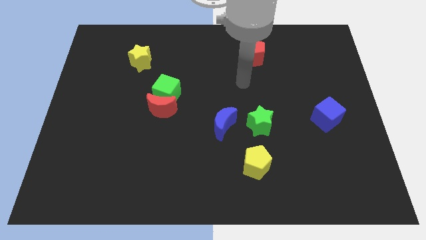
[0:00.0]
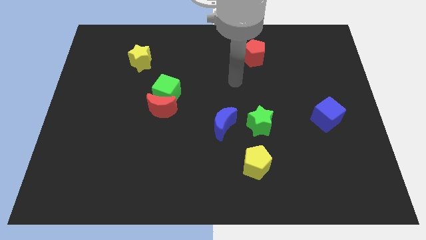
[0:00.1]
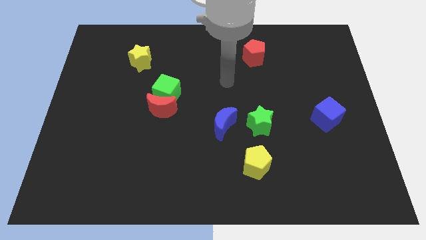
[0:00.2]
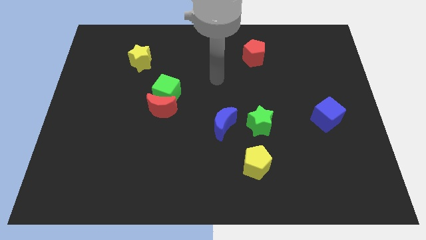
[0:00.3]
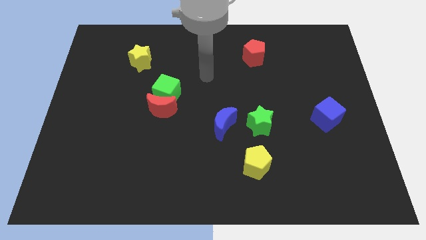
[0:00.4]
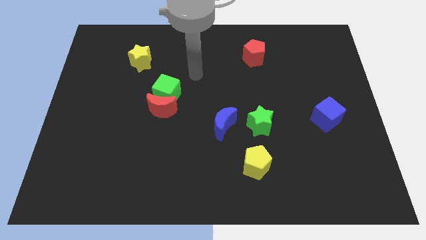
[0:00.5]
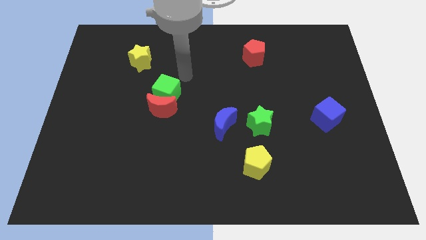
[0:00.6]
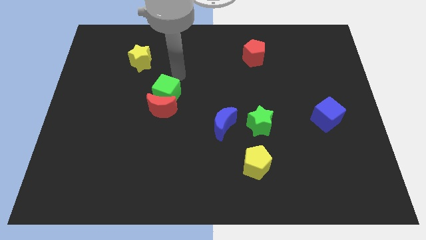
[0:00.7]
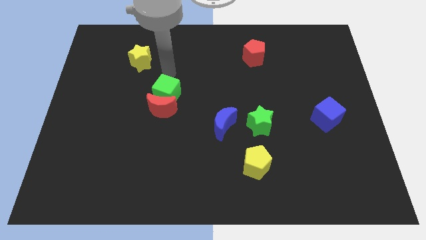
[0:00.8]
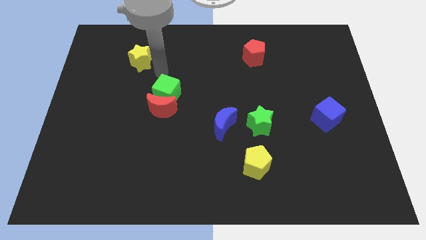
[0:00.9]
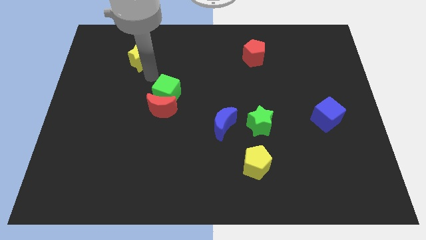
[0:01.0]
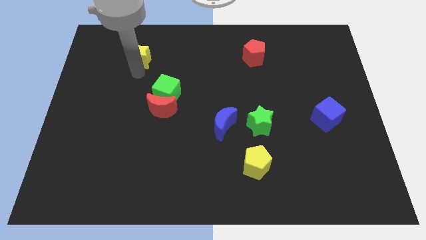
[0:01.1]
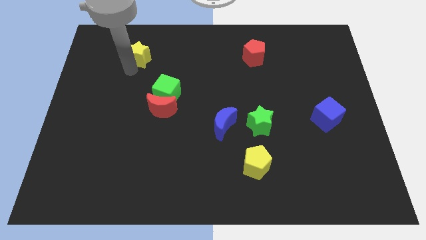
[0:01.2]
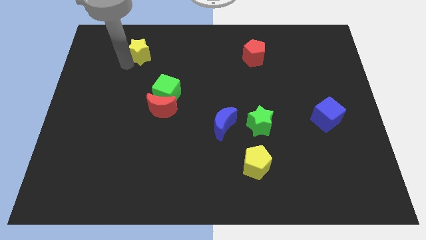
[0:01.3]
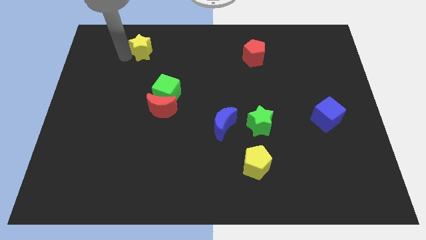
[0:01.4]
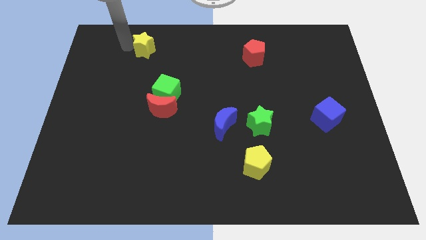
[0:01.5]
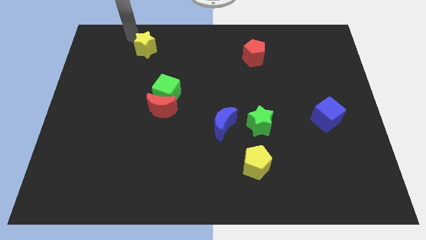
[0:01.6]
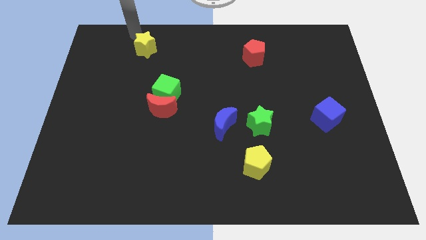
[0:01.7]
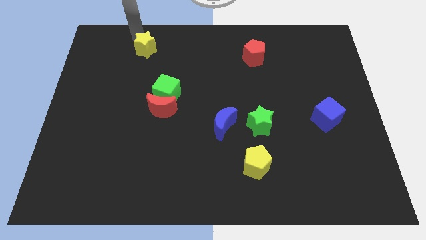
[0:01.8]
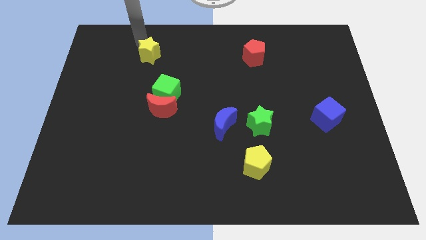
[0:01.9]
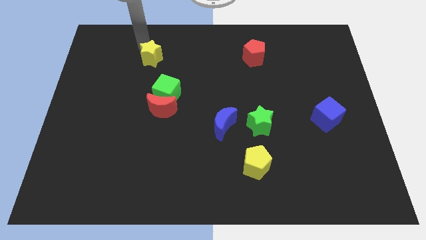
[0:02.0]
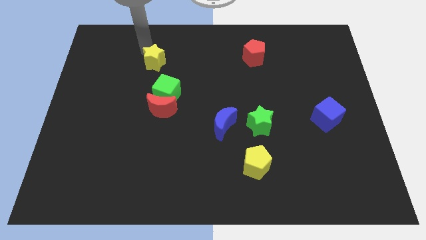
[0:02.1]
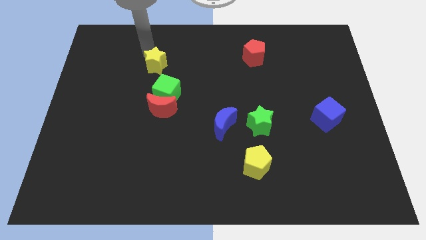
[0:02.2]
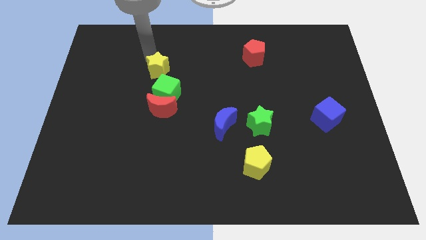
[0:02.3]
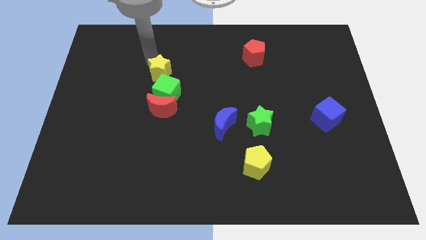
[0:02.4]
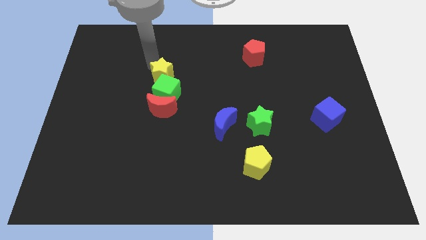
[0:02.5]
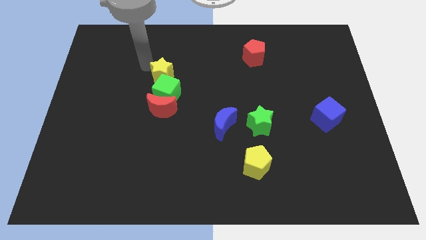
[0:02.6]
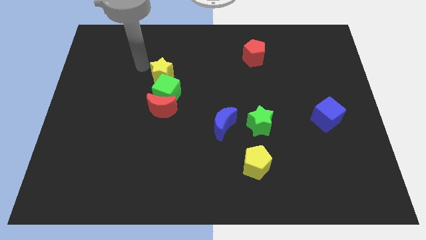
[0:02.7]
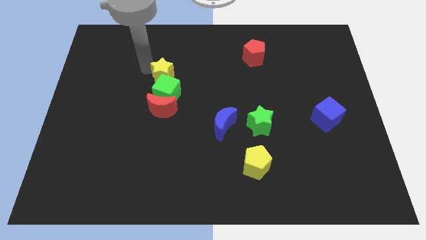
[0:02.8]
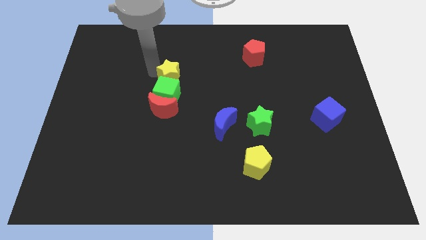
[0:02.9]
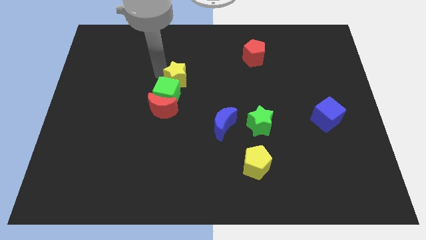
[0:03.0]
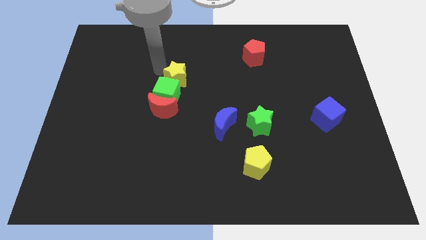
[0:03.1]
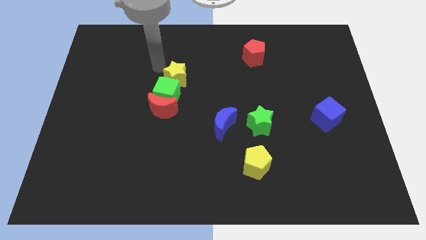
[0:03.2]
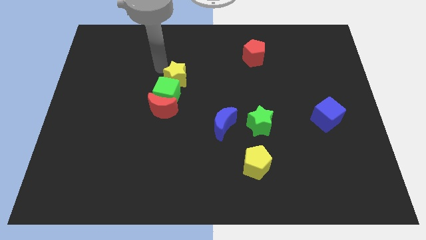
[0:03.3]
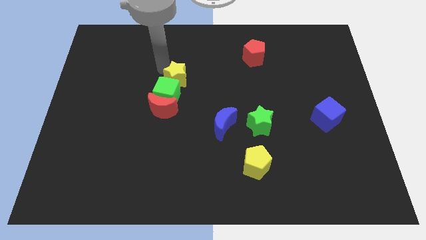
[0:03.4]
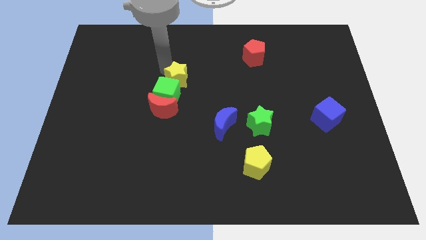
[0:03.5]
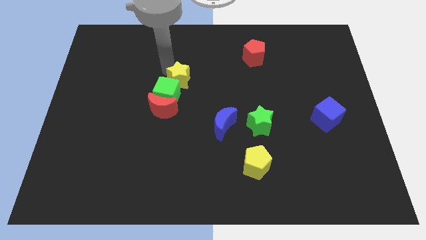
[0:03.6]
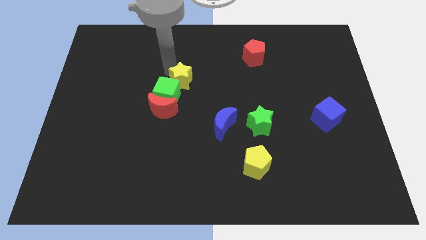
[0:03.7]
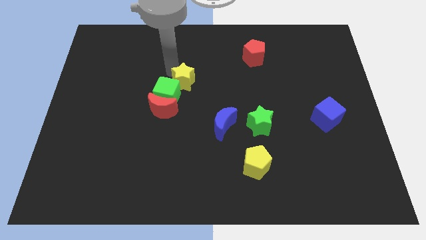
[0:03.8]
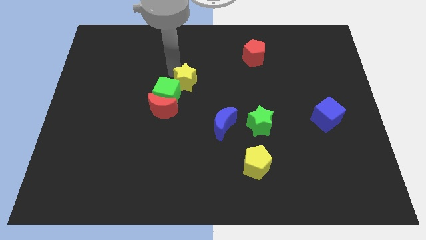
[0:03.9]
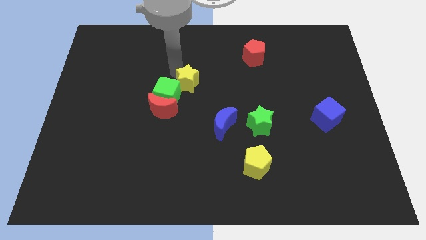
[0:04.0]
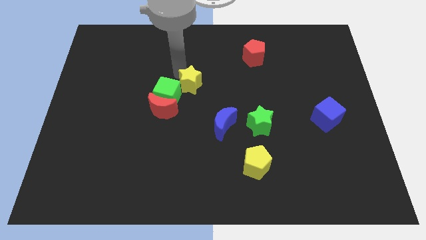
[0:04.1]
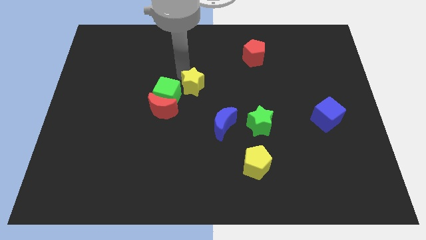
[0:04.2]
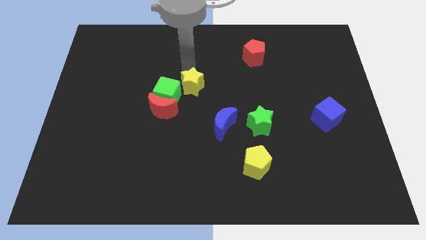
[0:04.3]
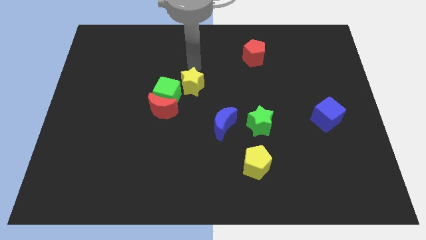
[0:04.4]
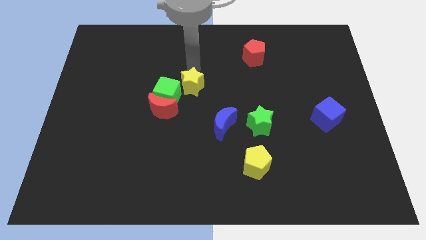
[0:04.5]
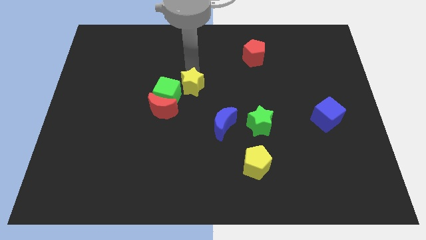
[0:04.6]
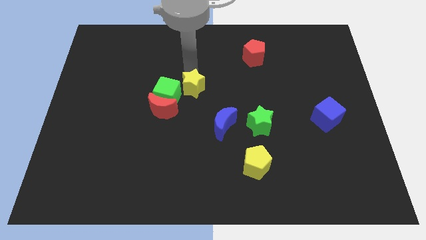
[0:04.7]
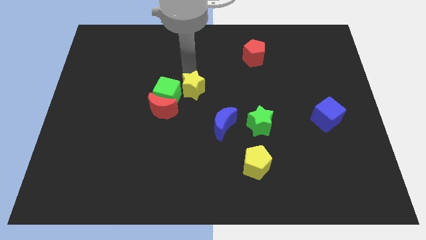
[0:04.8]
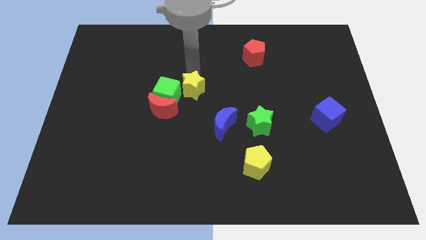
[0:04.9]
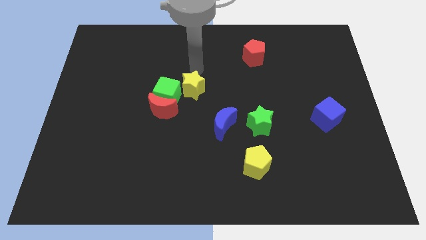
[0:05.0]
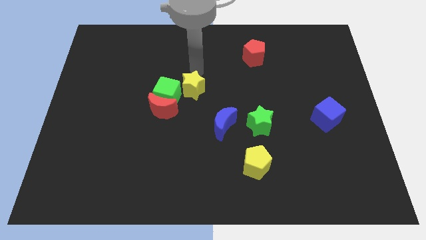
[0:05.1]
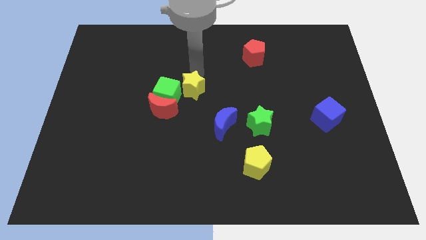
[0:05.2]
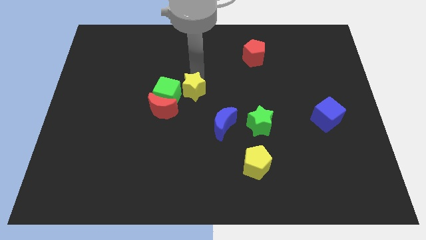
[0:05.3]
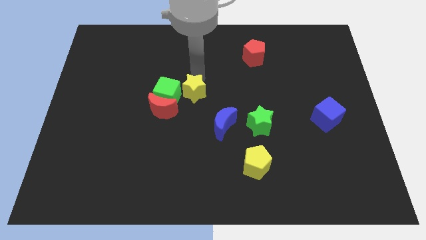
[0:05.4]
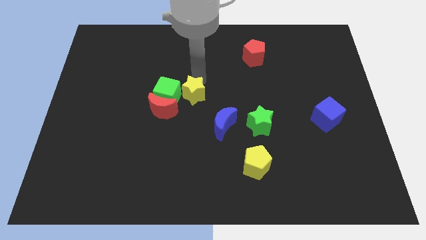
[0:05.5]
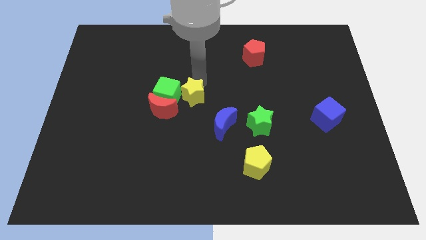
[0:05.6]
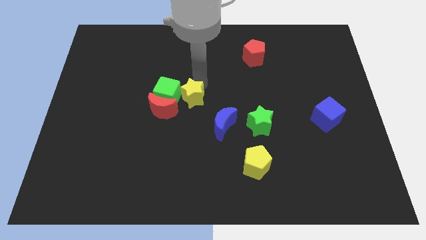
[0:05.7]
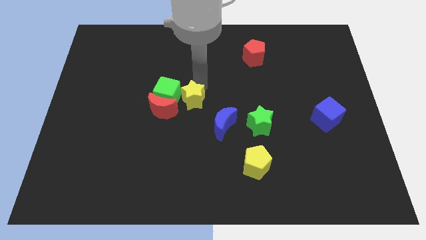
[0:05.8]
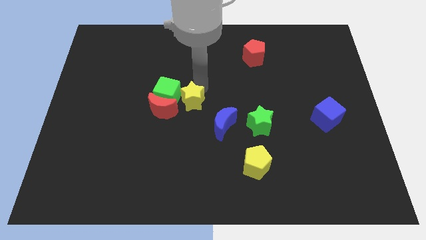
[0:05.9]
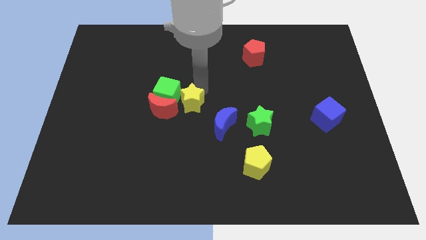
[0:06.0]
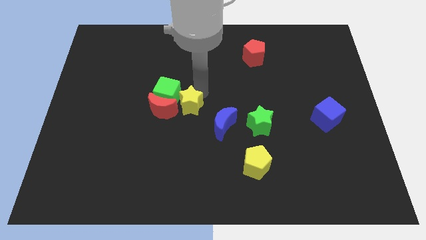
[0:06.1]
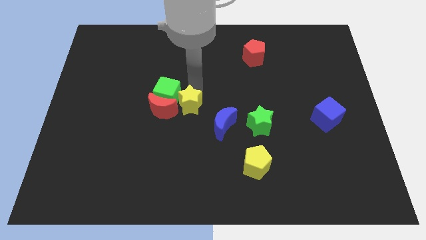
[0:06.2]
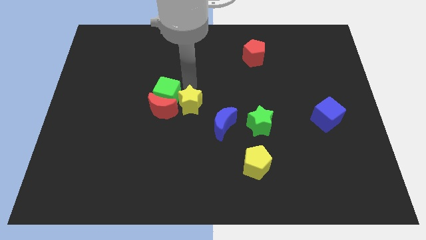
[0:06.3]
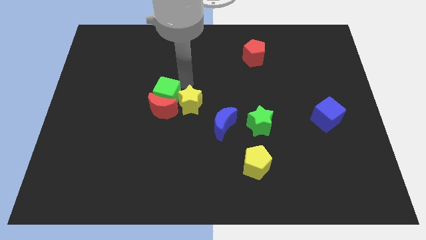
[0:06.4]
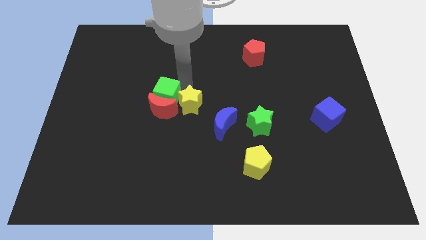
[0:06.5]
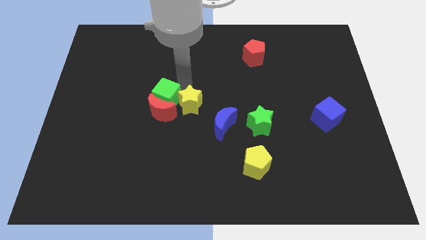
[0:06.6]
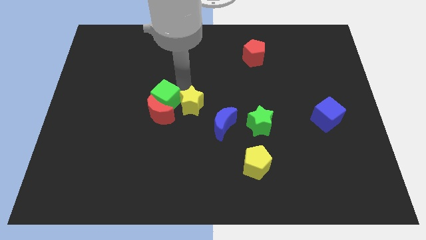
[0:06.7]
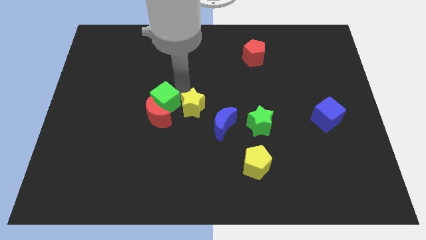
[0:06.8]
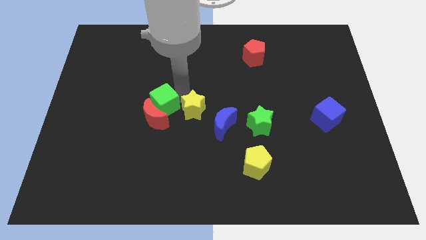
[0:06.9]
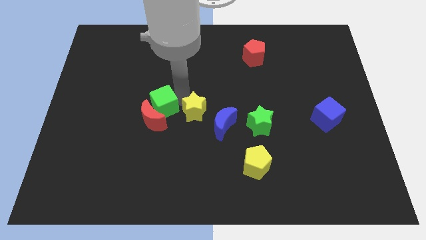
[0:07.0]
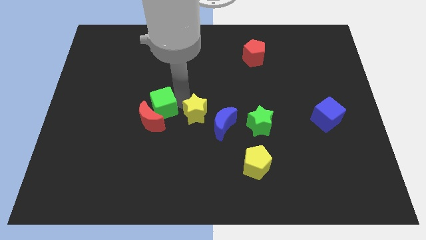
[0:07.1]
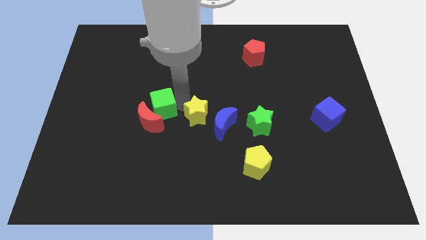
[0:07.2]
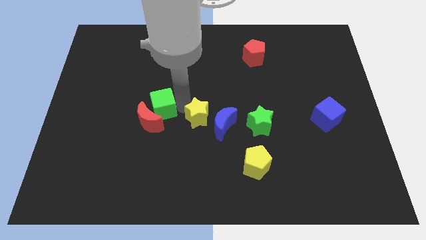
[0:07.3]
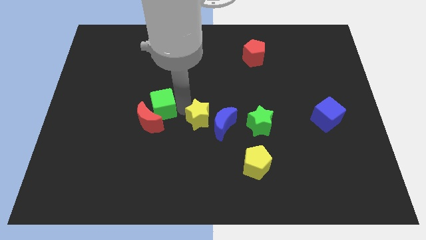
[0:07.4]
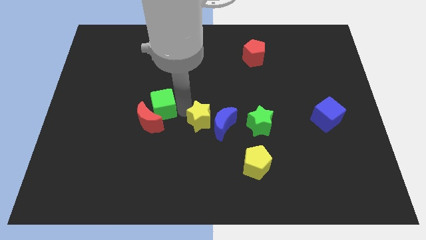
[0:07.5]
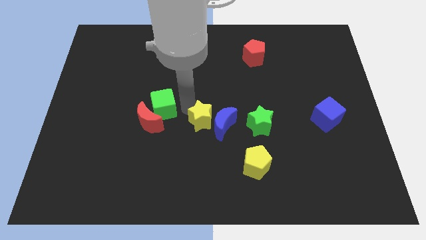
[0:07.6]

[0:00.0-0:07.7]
move the yellow star to the bottom left of the blue moon

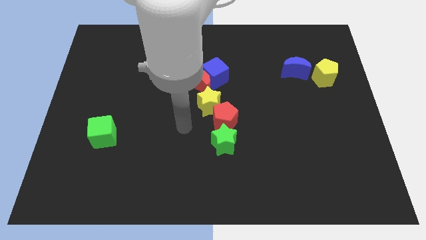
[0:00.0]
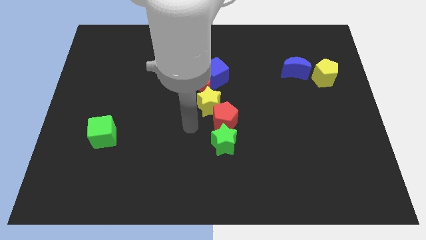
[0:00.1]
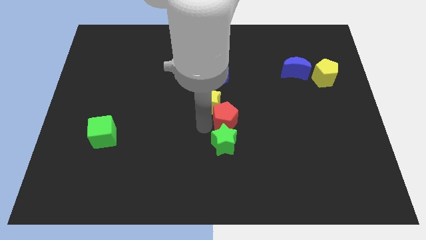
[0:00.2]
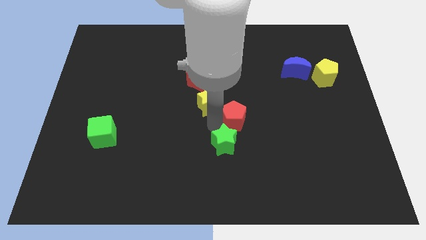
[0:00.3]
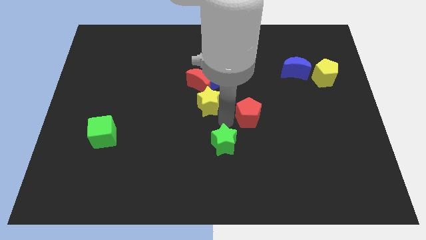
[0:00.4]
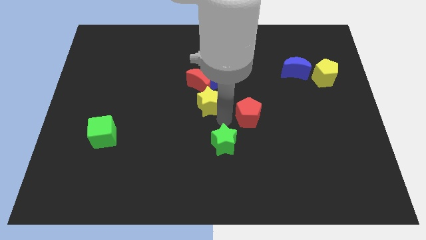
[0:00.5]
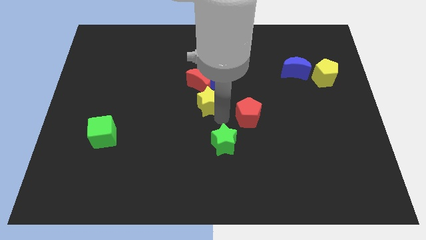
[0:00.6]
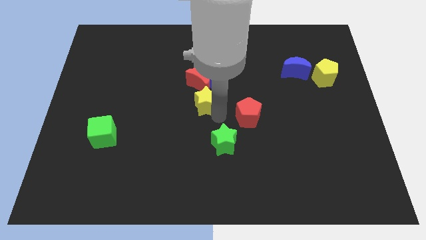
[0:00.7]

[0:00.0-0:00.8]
move the yellow star to the bottom left of the blue cube
